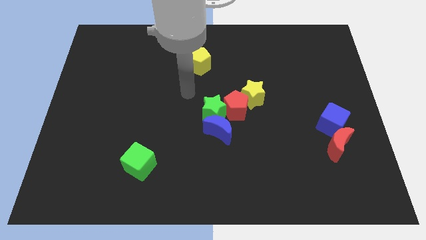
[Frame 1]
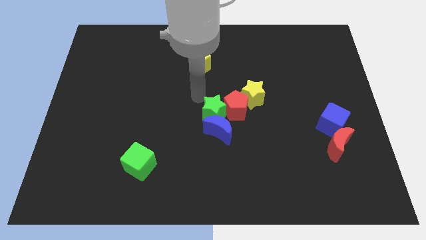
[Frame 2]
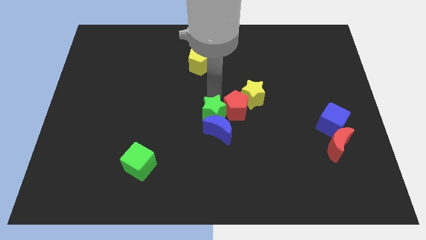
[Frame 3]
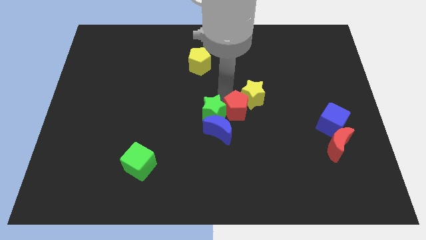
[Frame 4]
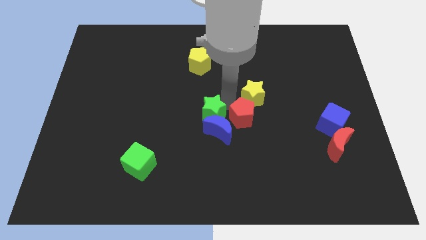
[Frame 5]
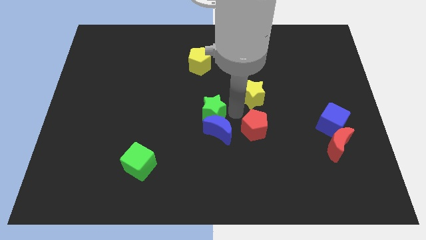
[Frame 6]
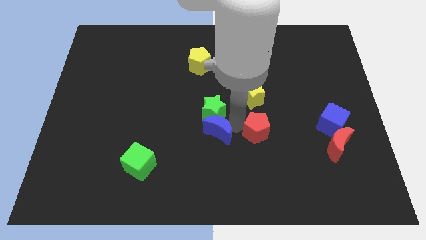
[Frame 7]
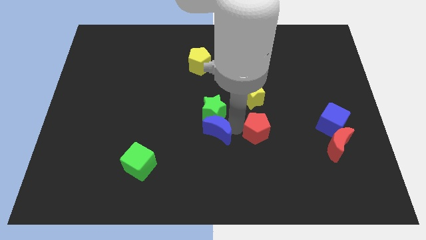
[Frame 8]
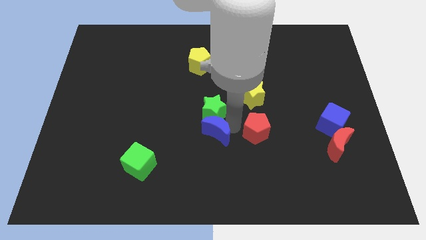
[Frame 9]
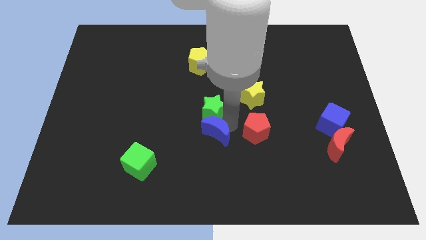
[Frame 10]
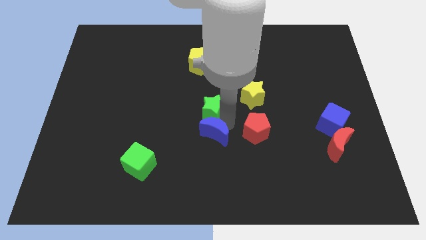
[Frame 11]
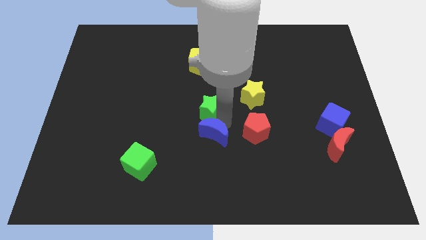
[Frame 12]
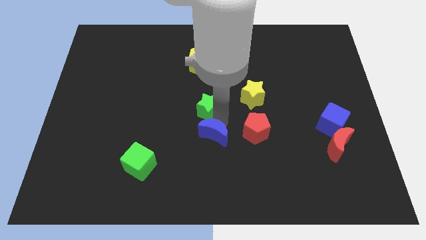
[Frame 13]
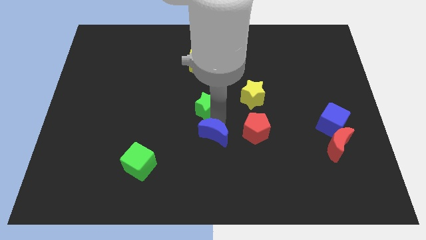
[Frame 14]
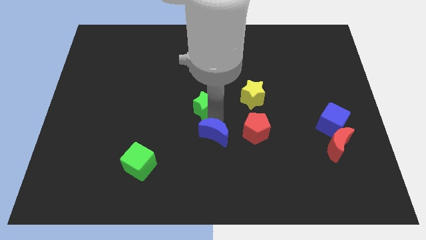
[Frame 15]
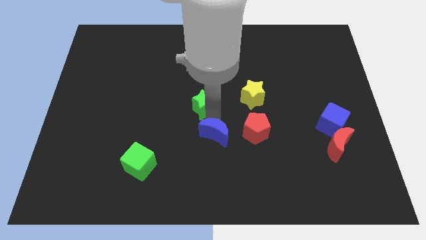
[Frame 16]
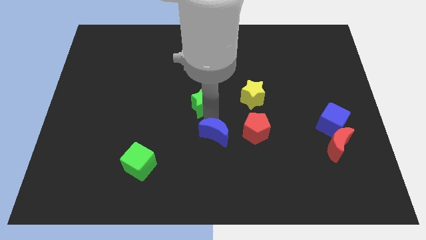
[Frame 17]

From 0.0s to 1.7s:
separate the green star from the blue moon and red pentagon

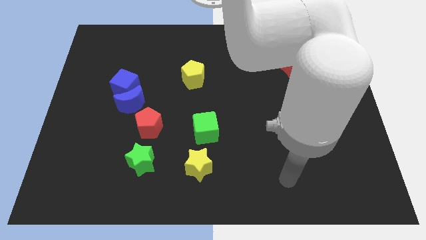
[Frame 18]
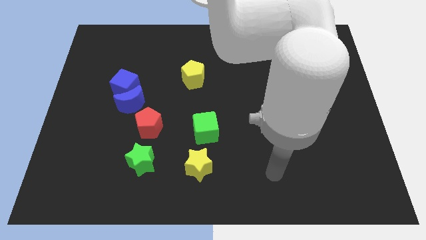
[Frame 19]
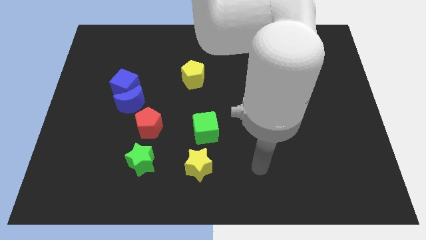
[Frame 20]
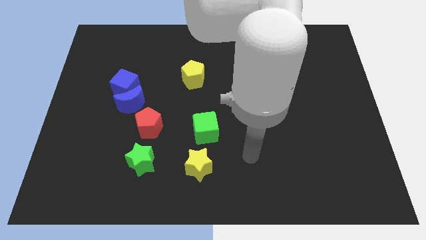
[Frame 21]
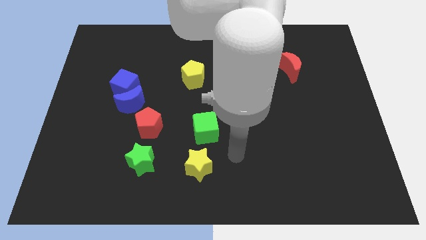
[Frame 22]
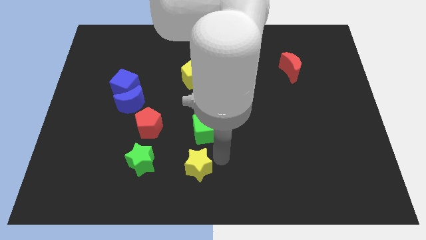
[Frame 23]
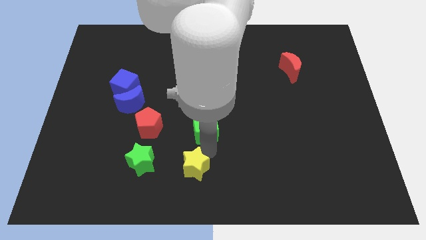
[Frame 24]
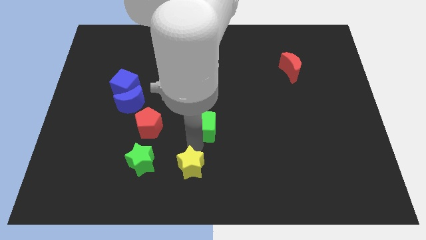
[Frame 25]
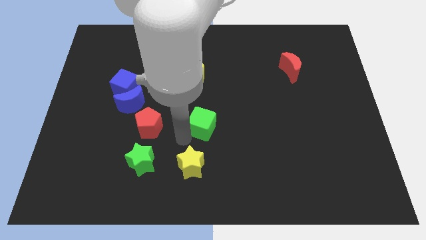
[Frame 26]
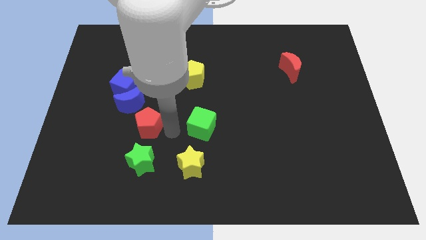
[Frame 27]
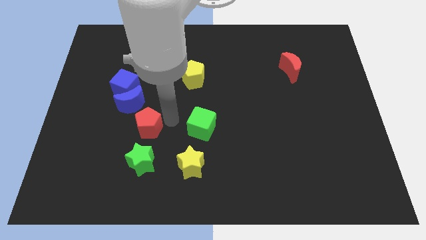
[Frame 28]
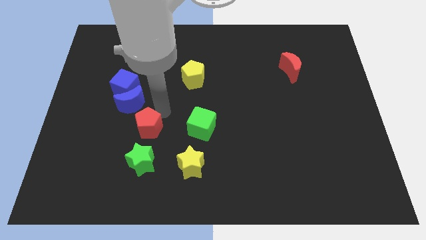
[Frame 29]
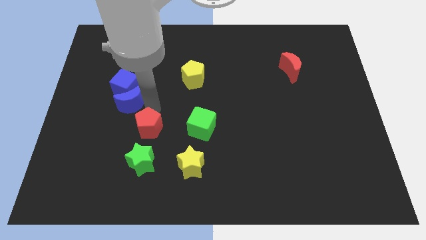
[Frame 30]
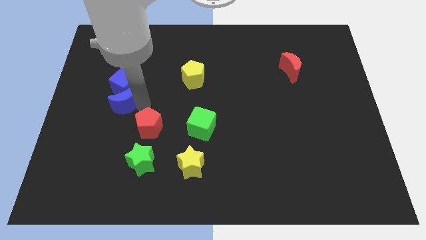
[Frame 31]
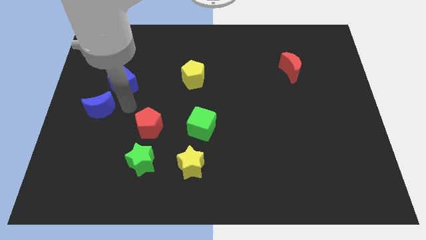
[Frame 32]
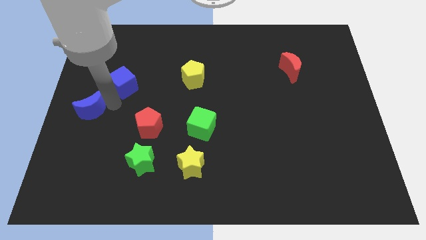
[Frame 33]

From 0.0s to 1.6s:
pull the blue cube apart from the blue moon

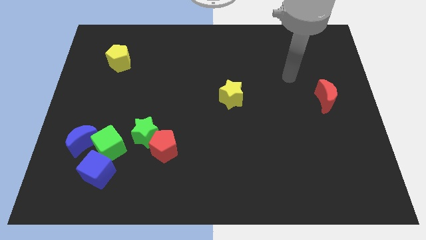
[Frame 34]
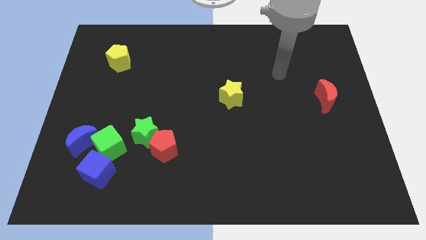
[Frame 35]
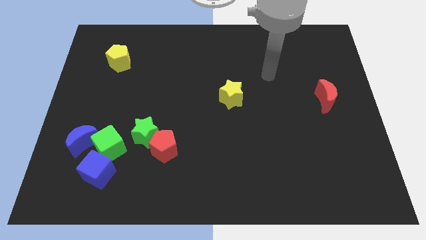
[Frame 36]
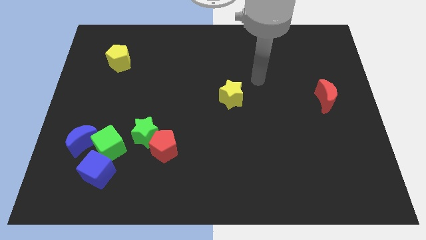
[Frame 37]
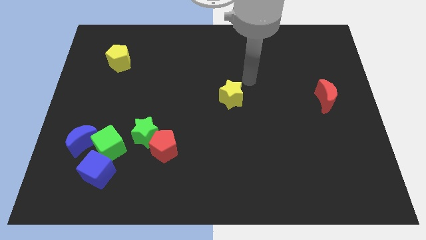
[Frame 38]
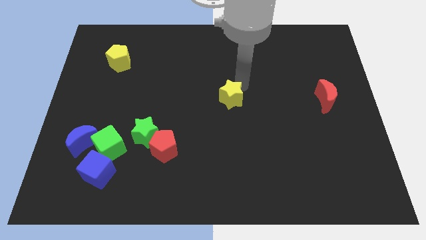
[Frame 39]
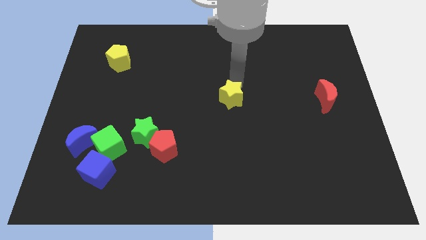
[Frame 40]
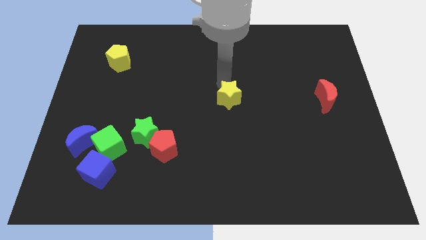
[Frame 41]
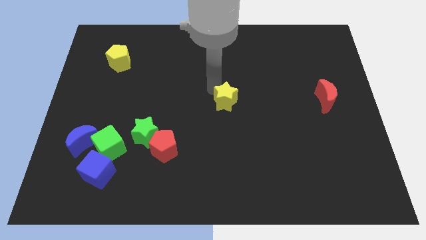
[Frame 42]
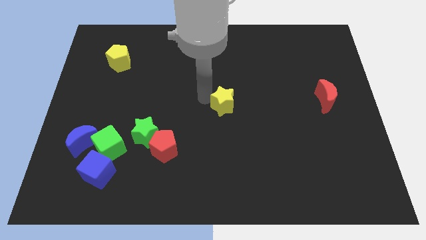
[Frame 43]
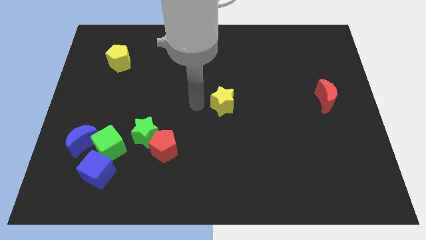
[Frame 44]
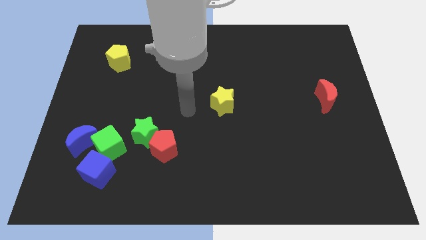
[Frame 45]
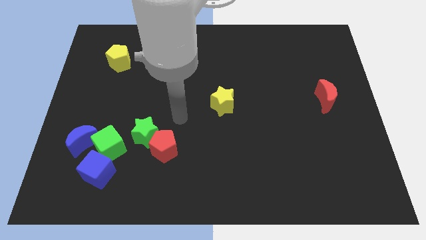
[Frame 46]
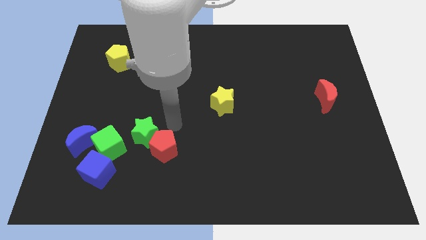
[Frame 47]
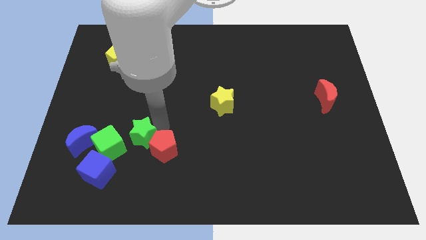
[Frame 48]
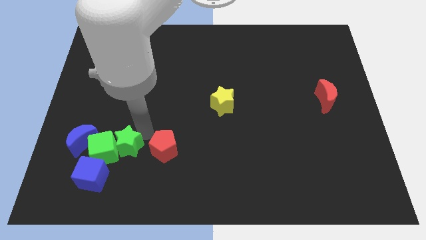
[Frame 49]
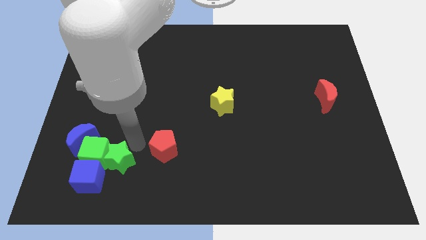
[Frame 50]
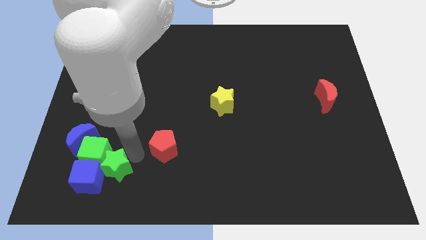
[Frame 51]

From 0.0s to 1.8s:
move the red pentagon away from the green star

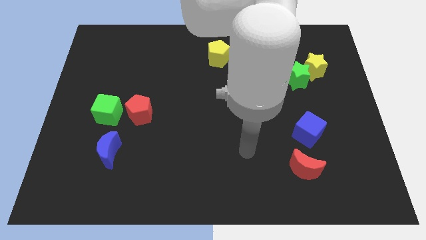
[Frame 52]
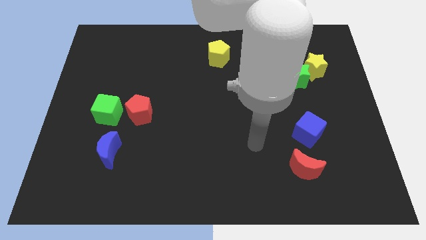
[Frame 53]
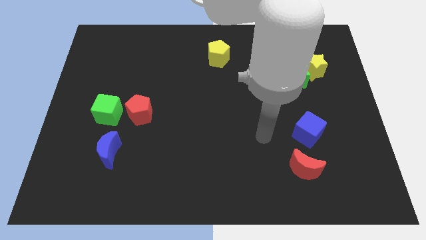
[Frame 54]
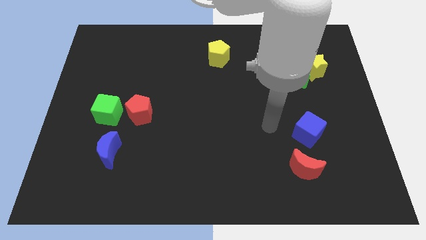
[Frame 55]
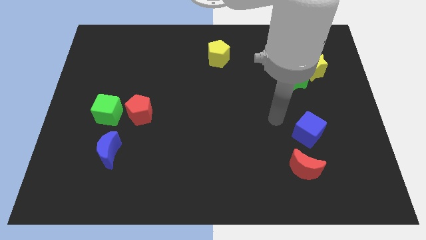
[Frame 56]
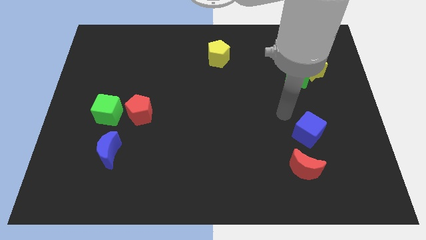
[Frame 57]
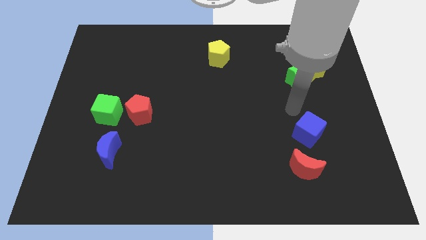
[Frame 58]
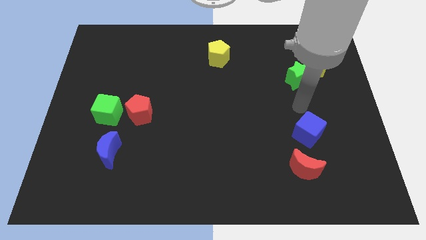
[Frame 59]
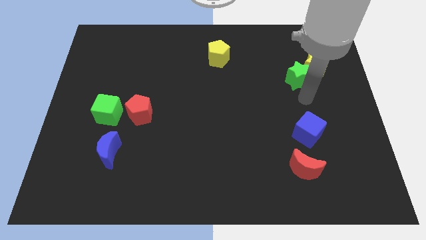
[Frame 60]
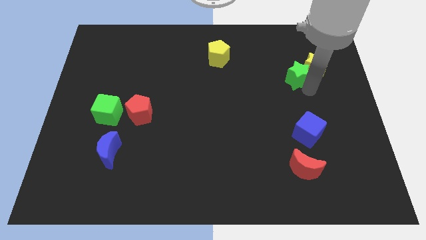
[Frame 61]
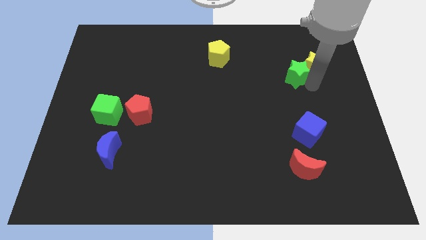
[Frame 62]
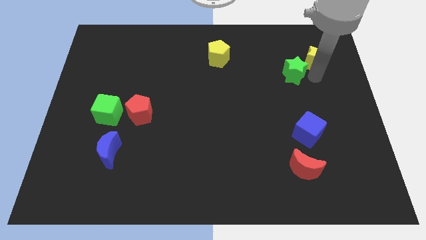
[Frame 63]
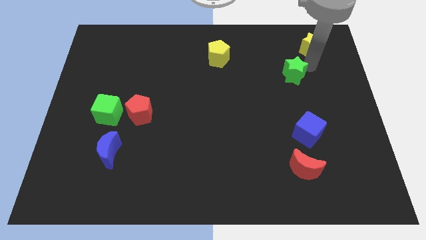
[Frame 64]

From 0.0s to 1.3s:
separate the green star from the yellow star

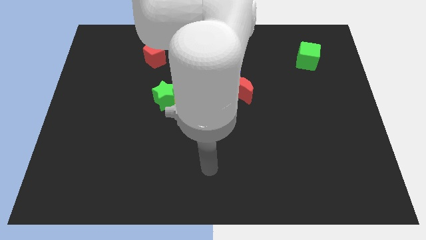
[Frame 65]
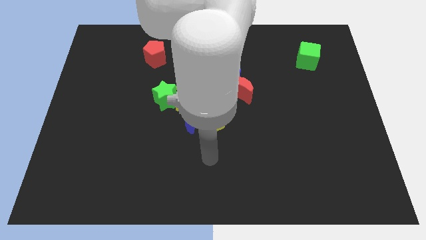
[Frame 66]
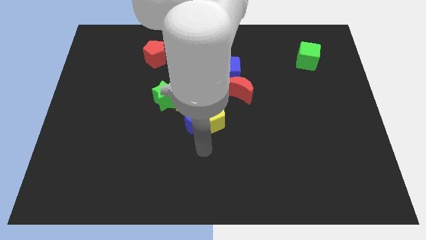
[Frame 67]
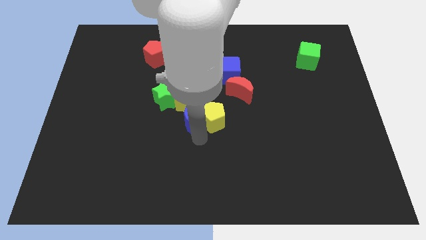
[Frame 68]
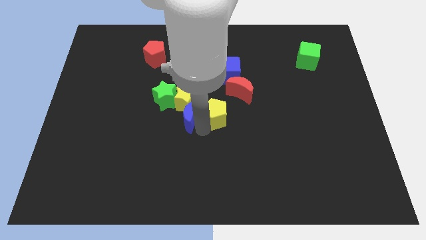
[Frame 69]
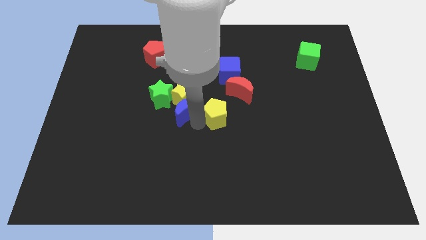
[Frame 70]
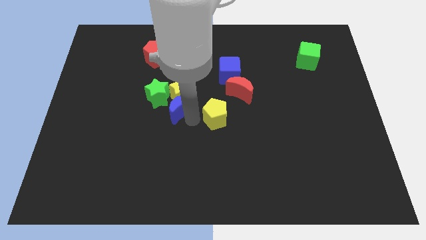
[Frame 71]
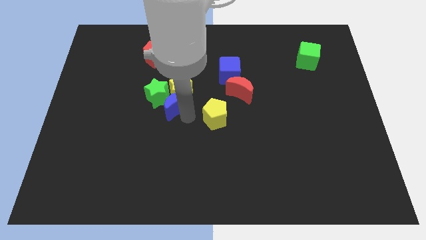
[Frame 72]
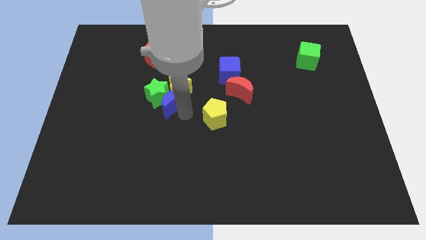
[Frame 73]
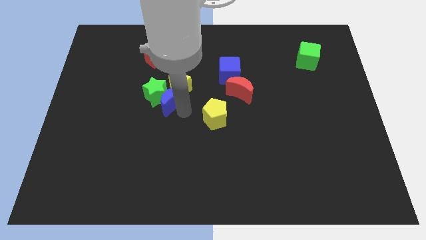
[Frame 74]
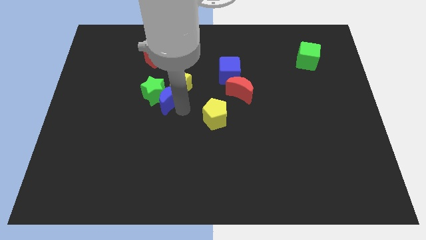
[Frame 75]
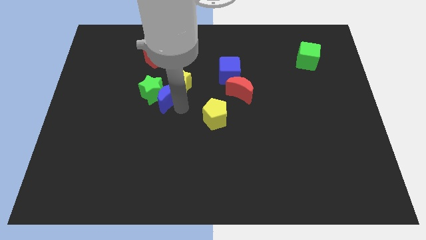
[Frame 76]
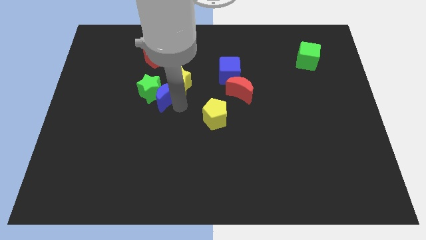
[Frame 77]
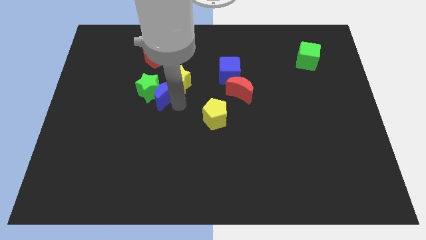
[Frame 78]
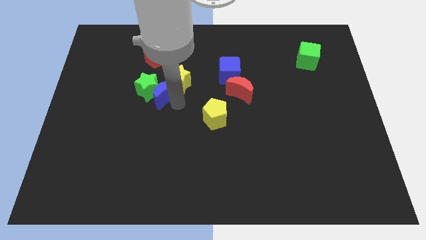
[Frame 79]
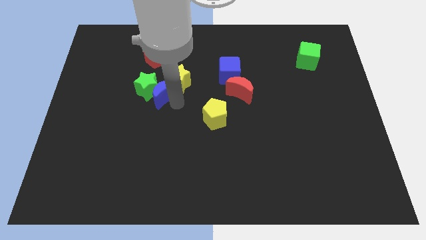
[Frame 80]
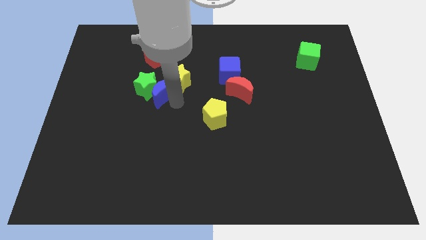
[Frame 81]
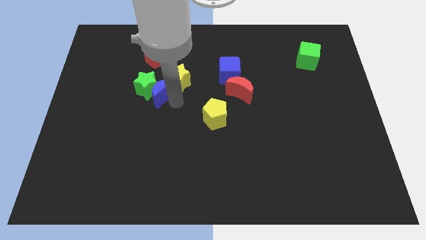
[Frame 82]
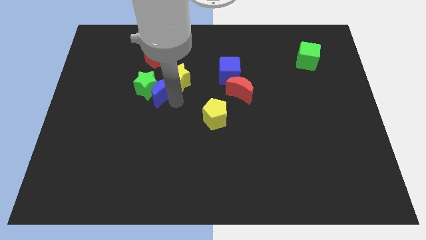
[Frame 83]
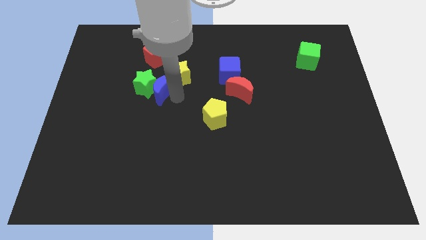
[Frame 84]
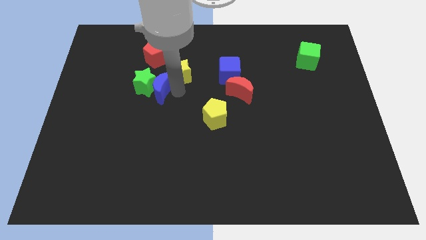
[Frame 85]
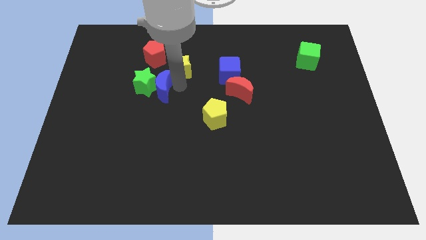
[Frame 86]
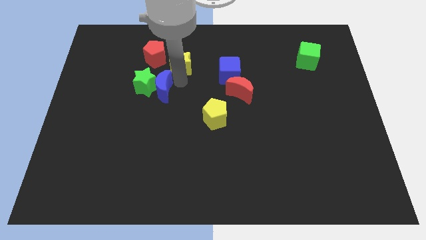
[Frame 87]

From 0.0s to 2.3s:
separate the yellow star from the group

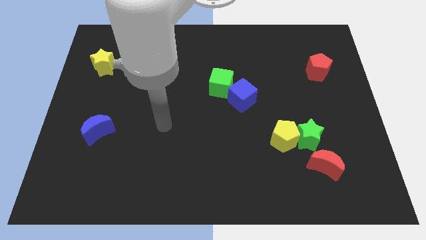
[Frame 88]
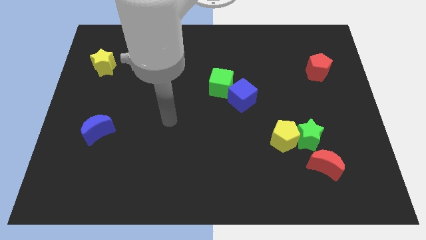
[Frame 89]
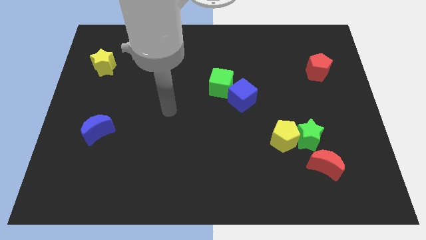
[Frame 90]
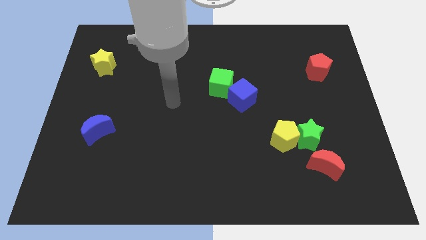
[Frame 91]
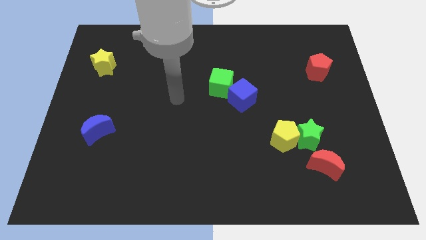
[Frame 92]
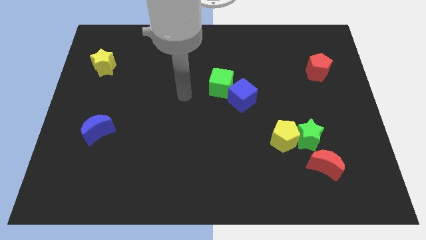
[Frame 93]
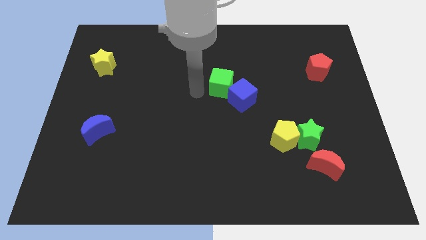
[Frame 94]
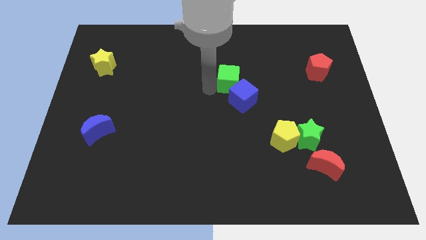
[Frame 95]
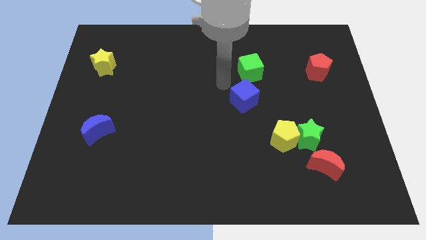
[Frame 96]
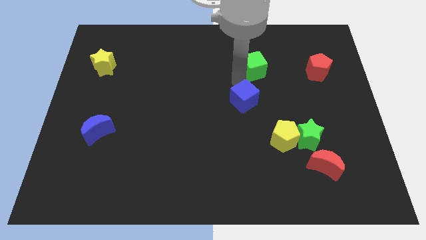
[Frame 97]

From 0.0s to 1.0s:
separate the blue cube from the green cube
